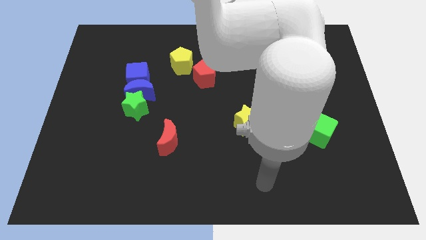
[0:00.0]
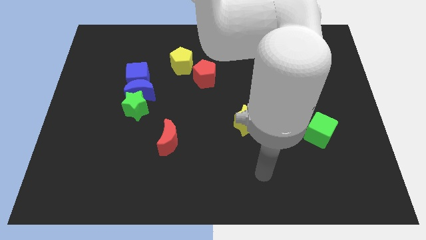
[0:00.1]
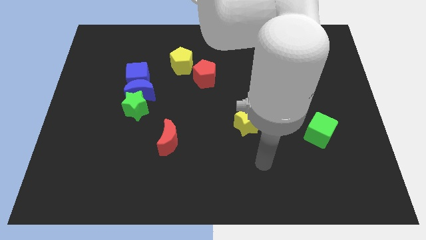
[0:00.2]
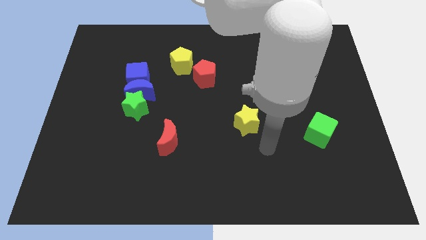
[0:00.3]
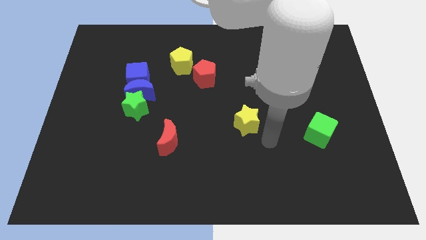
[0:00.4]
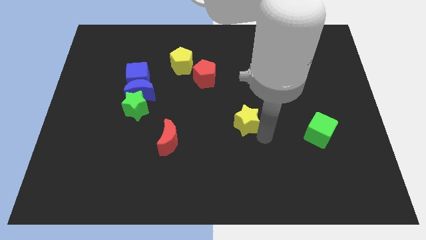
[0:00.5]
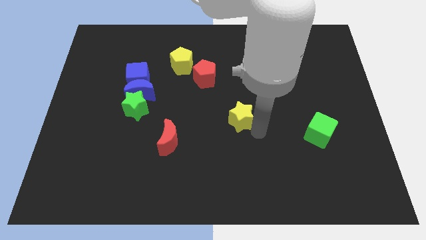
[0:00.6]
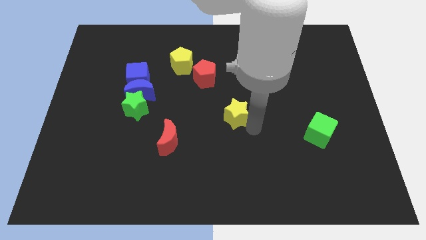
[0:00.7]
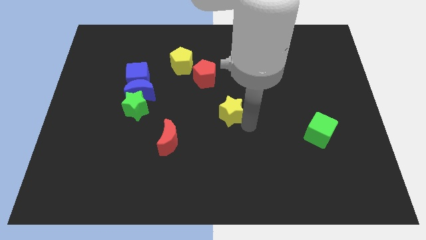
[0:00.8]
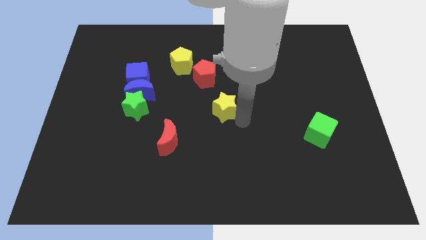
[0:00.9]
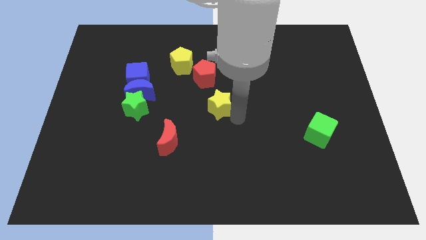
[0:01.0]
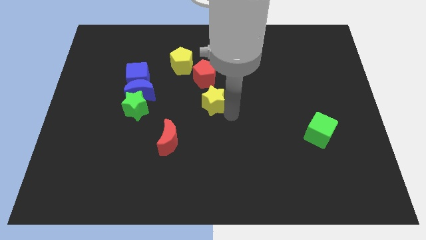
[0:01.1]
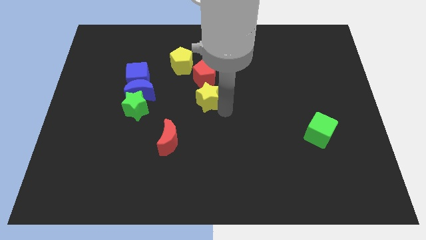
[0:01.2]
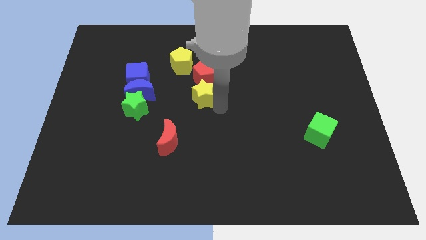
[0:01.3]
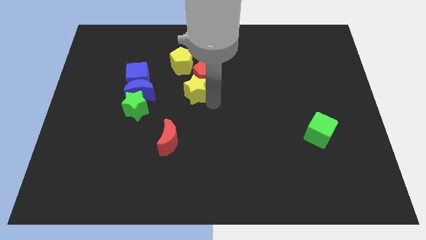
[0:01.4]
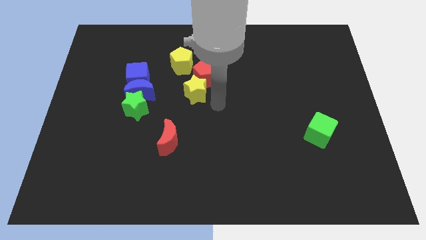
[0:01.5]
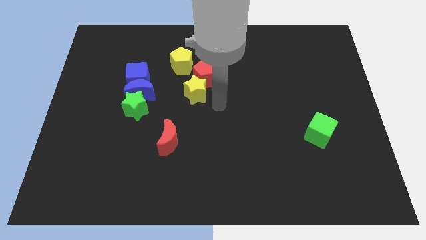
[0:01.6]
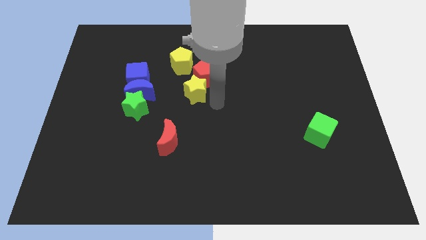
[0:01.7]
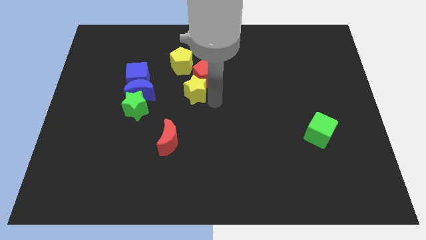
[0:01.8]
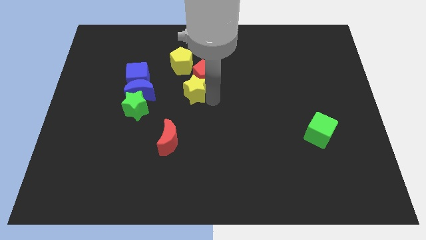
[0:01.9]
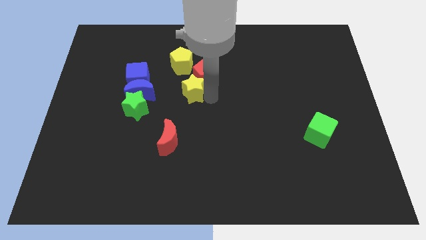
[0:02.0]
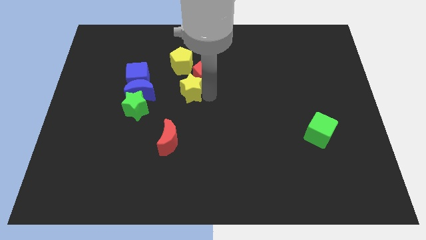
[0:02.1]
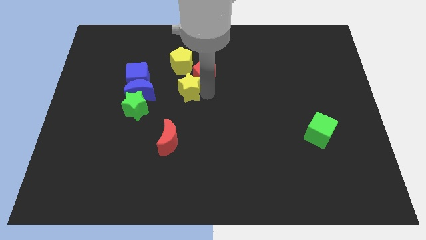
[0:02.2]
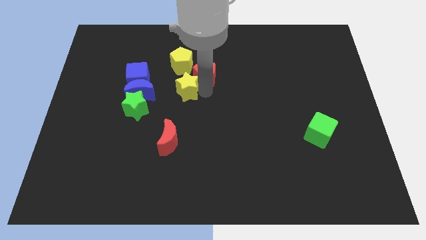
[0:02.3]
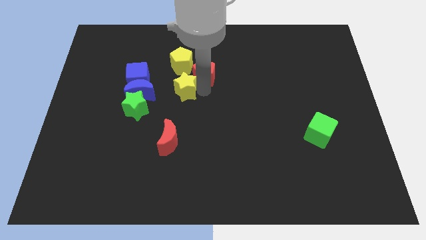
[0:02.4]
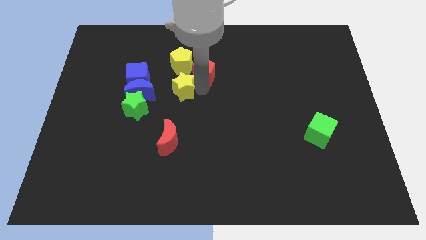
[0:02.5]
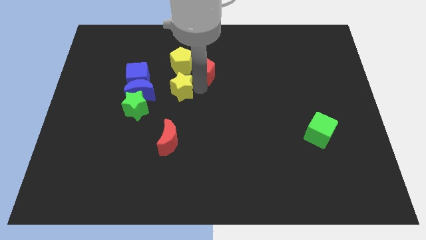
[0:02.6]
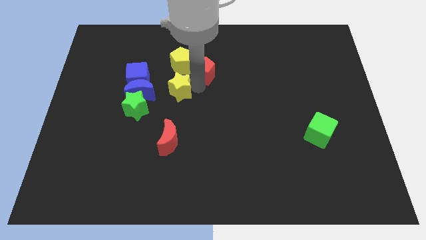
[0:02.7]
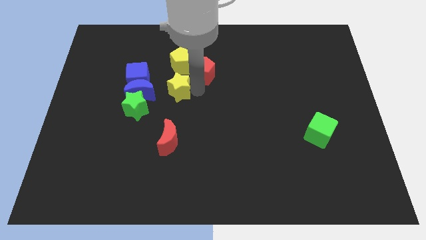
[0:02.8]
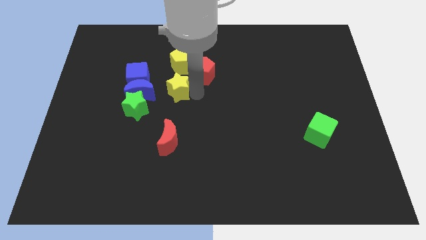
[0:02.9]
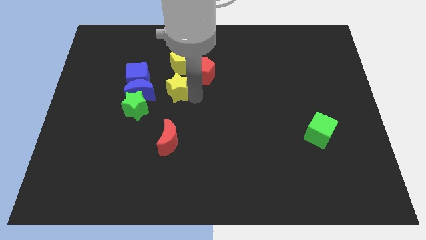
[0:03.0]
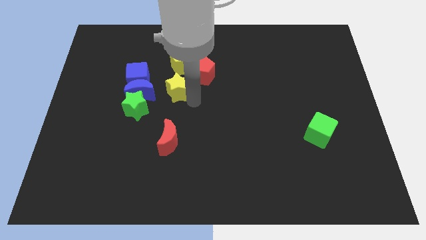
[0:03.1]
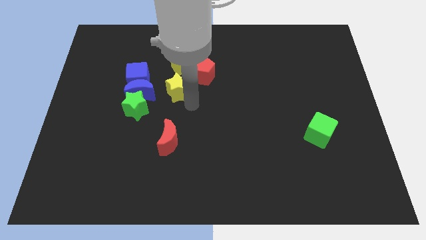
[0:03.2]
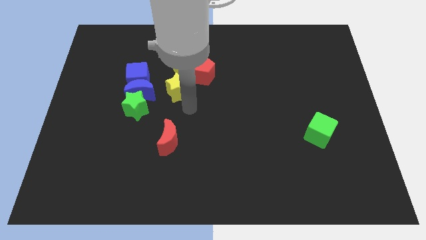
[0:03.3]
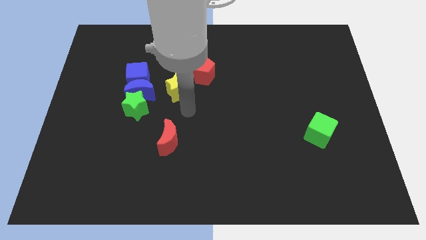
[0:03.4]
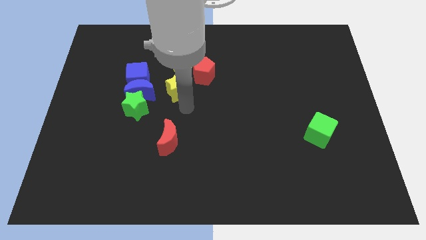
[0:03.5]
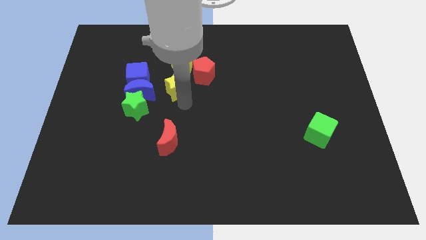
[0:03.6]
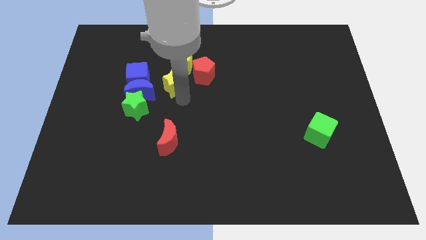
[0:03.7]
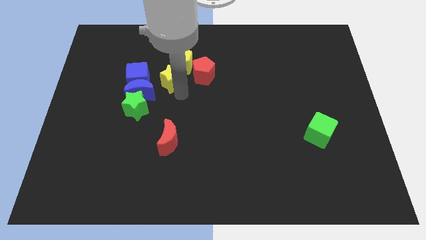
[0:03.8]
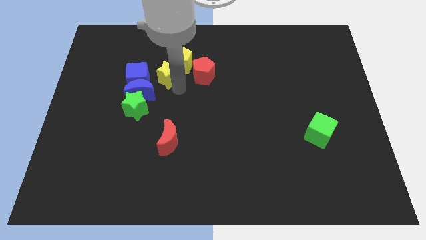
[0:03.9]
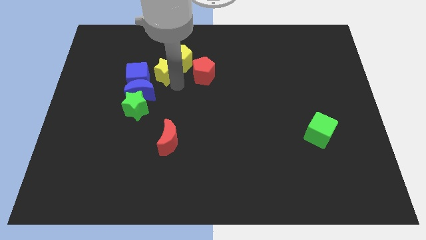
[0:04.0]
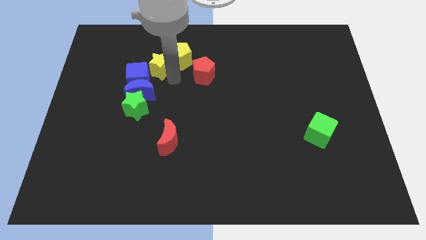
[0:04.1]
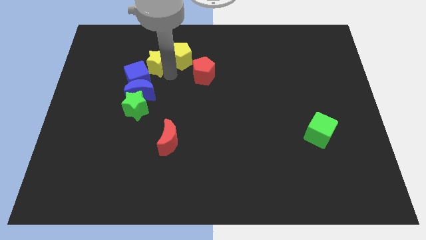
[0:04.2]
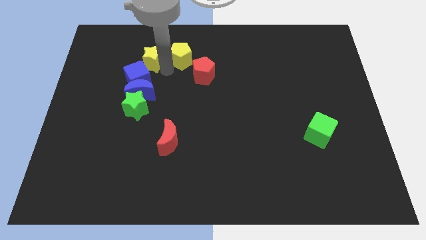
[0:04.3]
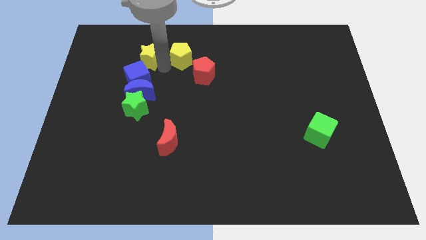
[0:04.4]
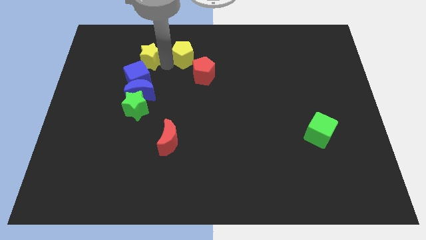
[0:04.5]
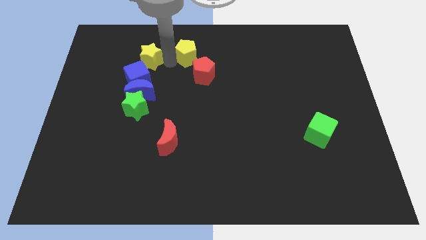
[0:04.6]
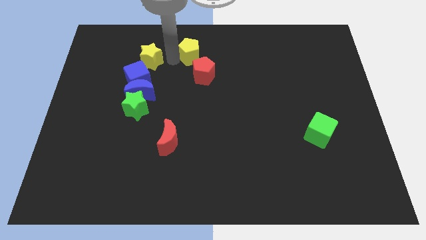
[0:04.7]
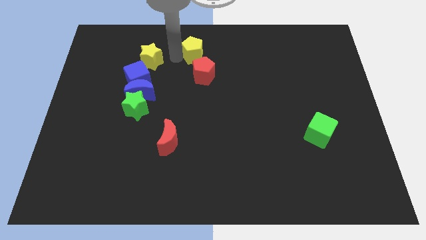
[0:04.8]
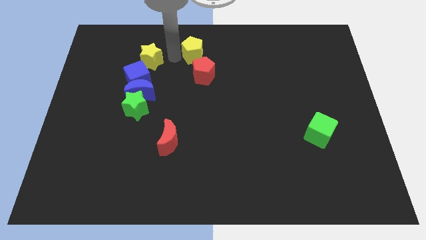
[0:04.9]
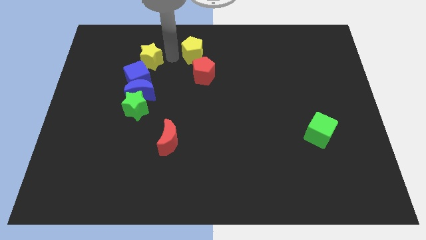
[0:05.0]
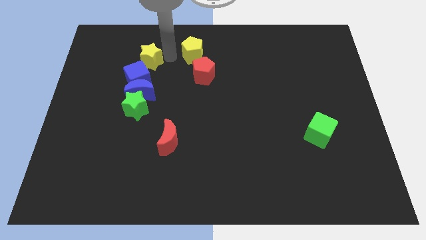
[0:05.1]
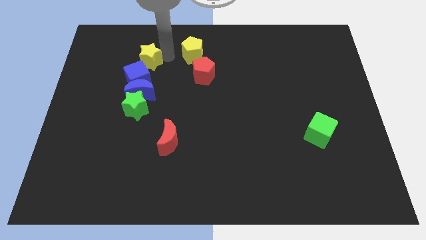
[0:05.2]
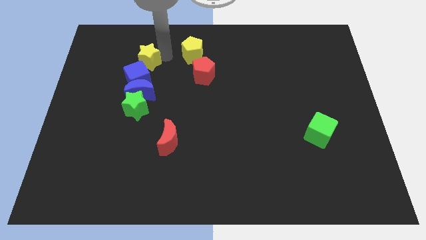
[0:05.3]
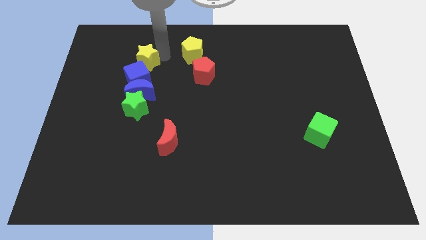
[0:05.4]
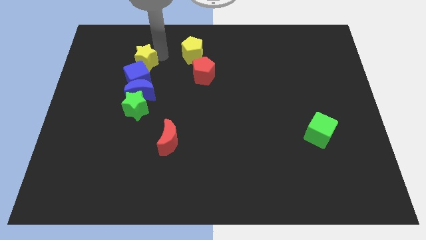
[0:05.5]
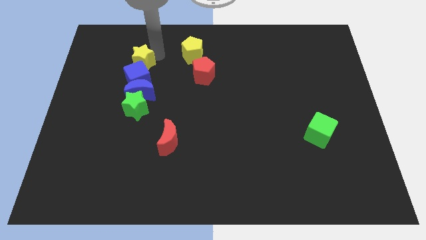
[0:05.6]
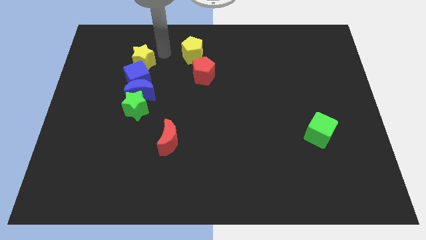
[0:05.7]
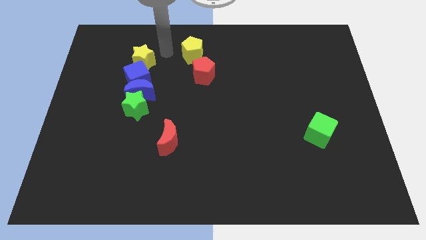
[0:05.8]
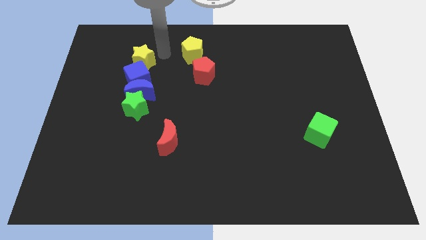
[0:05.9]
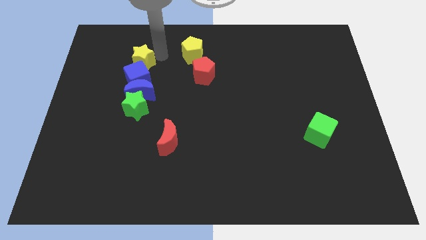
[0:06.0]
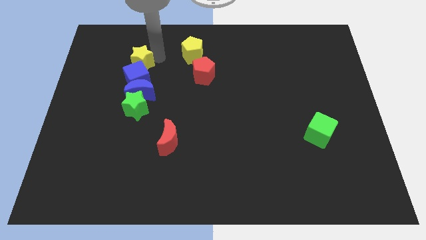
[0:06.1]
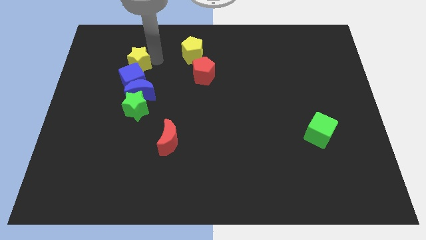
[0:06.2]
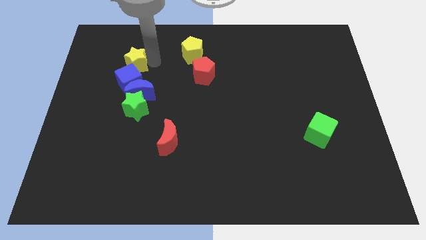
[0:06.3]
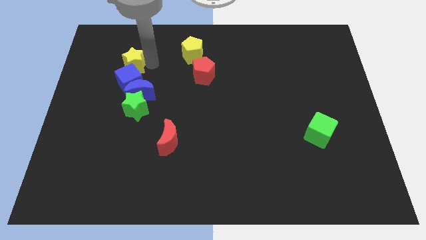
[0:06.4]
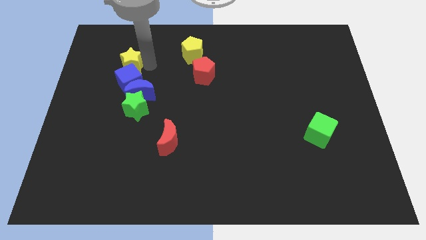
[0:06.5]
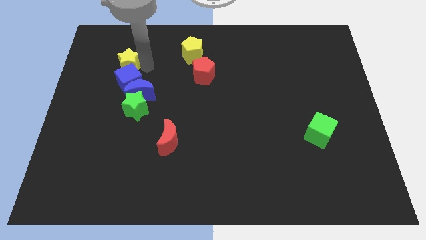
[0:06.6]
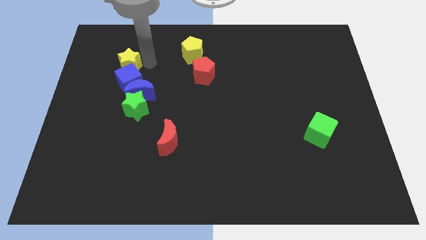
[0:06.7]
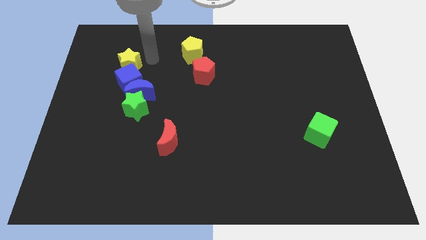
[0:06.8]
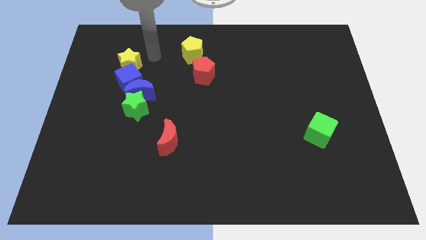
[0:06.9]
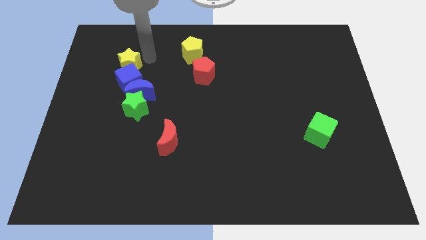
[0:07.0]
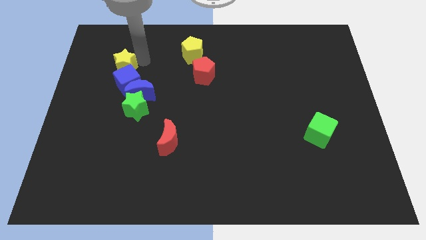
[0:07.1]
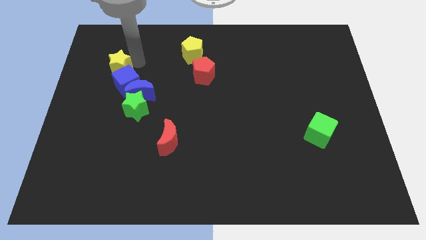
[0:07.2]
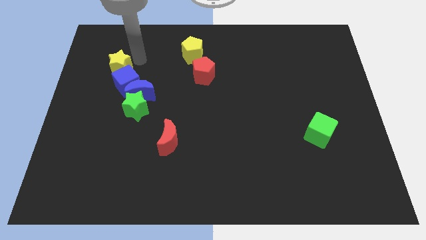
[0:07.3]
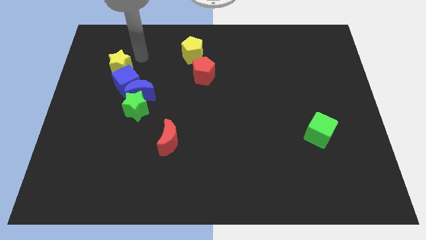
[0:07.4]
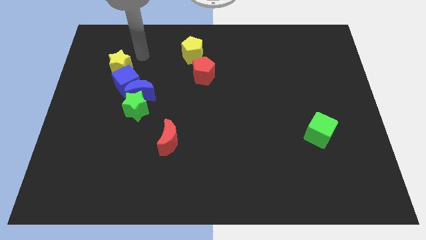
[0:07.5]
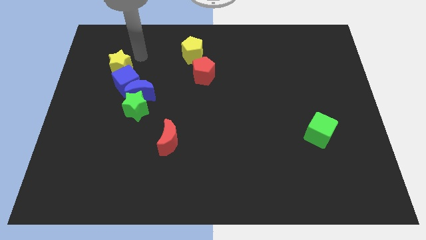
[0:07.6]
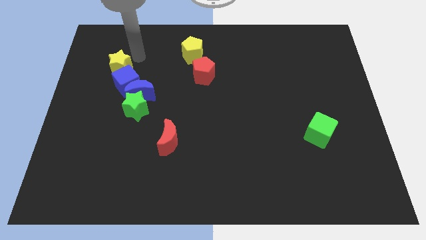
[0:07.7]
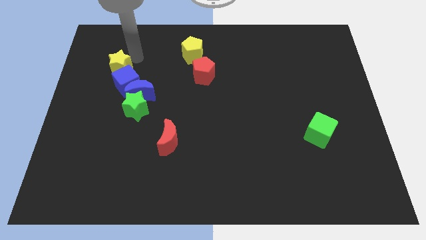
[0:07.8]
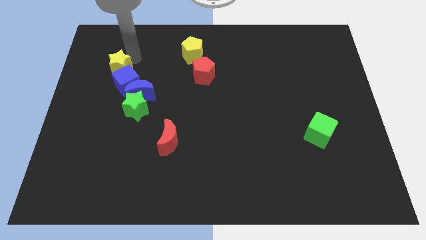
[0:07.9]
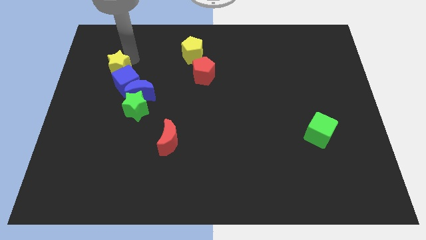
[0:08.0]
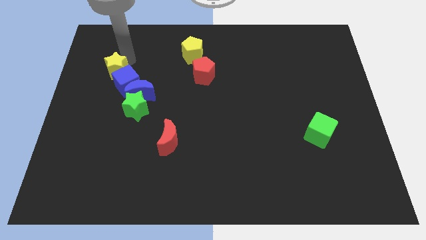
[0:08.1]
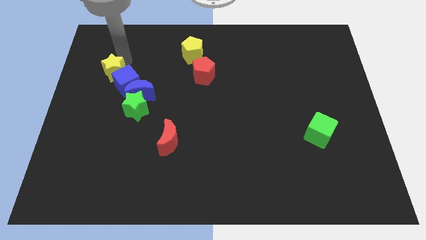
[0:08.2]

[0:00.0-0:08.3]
put the yellow star to the left of the blue cube
